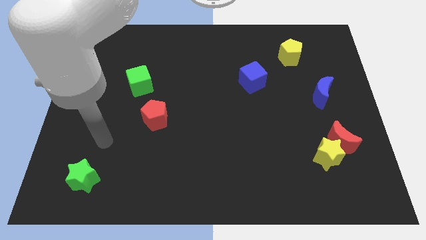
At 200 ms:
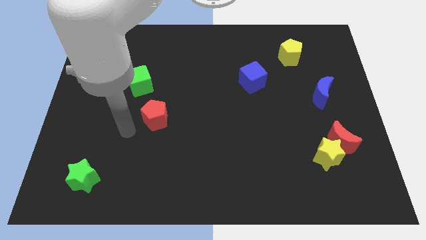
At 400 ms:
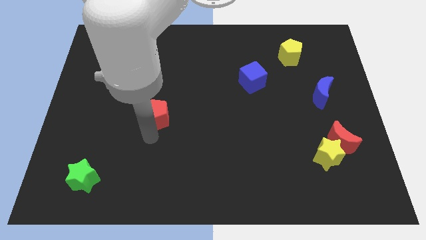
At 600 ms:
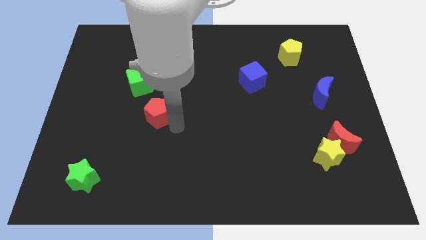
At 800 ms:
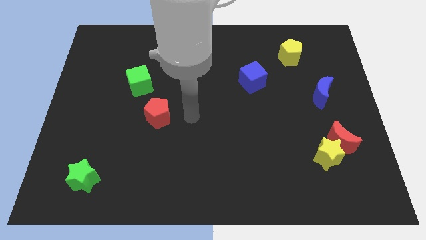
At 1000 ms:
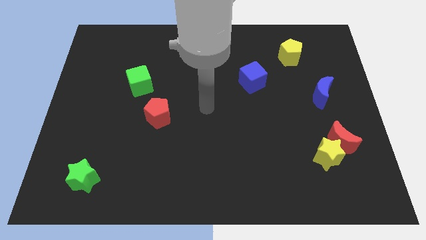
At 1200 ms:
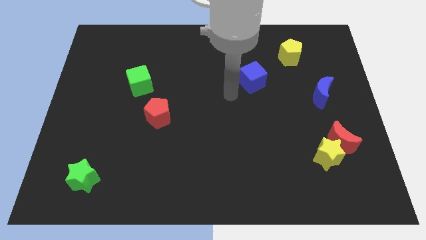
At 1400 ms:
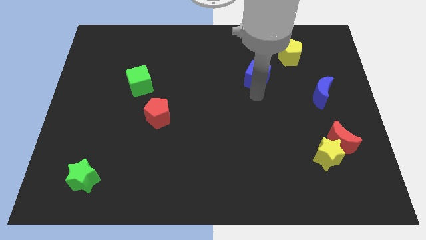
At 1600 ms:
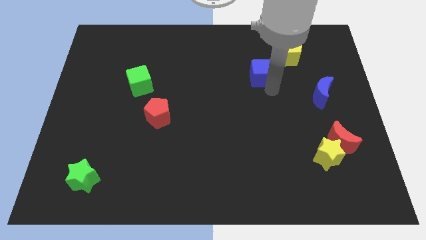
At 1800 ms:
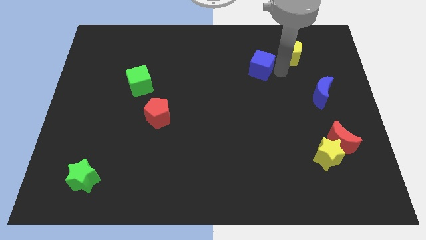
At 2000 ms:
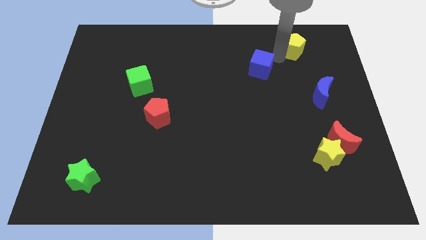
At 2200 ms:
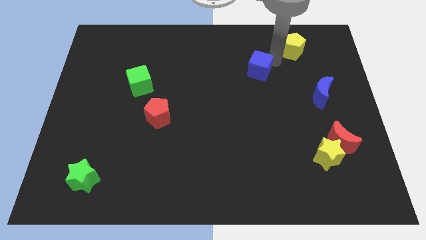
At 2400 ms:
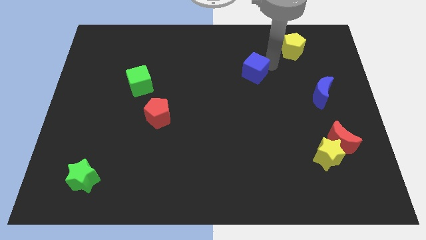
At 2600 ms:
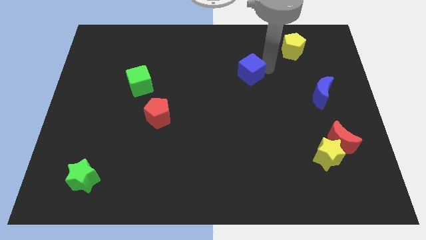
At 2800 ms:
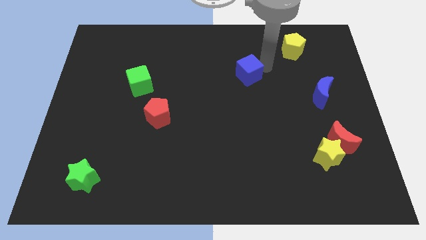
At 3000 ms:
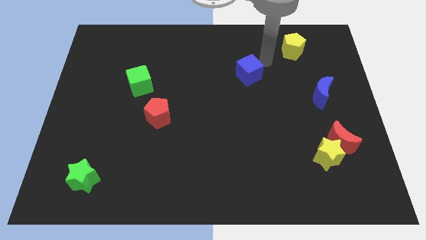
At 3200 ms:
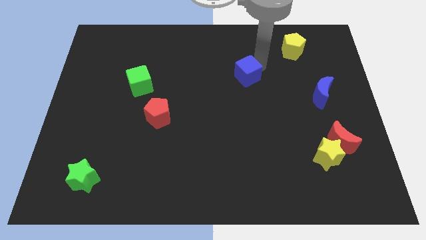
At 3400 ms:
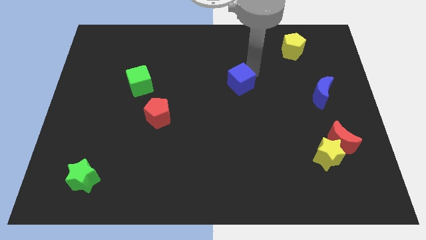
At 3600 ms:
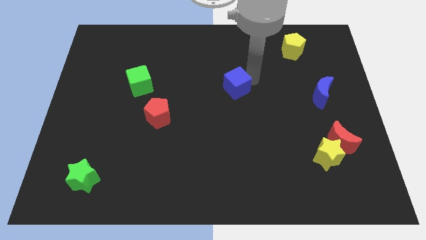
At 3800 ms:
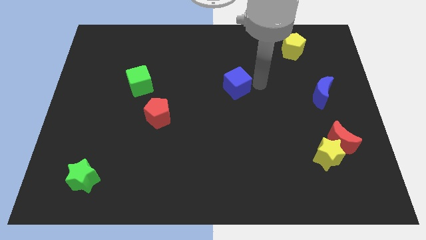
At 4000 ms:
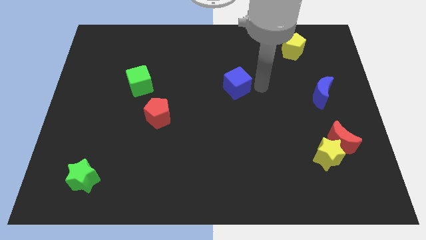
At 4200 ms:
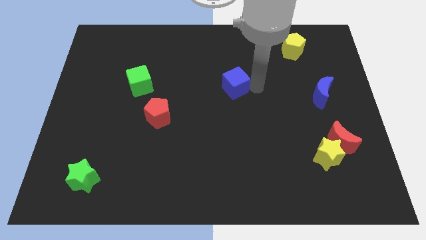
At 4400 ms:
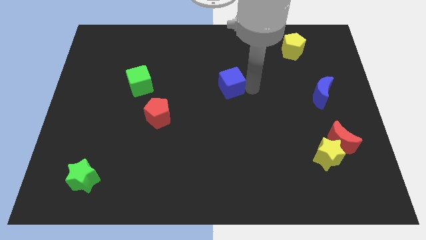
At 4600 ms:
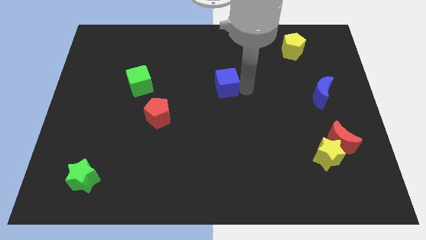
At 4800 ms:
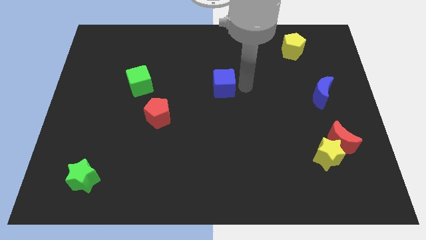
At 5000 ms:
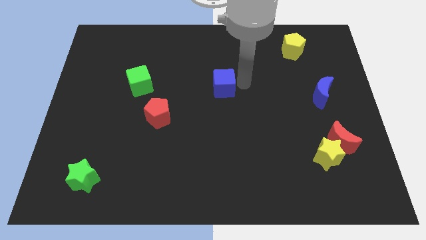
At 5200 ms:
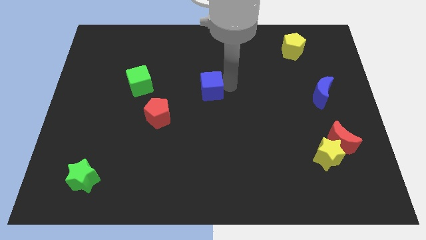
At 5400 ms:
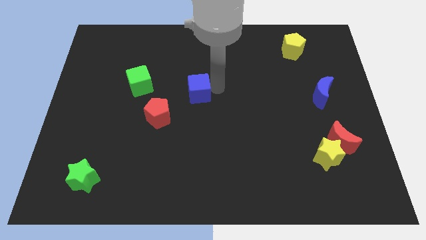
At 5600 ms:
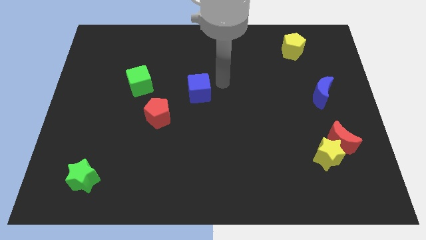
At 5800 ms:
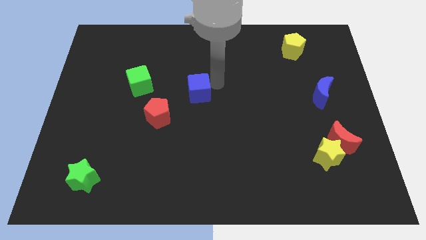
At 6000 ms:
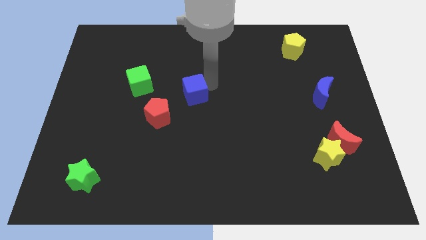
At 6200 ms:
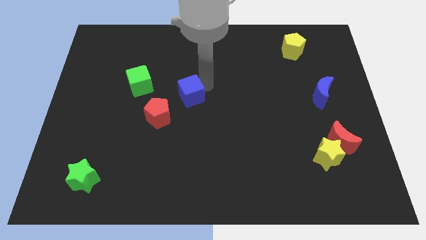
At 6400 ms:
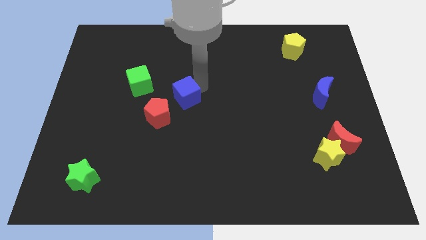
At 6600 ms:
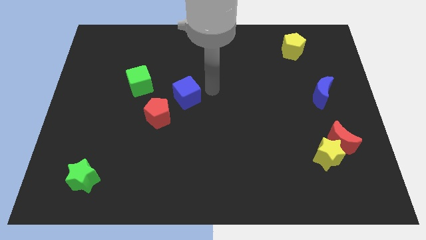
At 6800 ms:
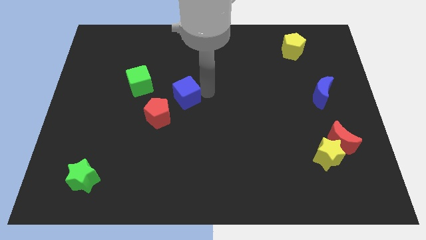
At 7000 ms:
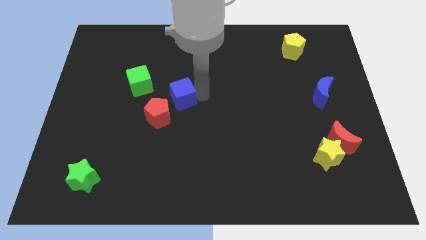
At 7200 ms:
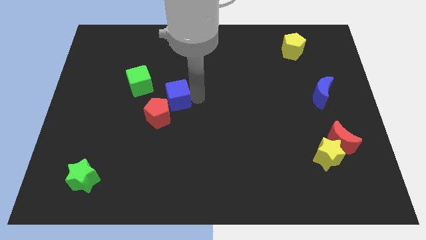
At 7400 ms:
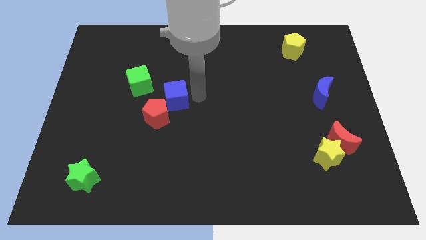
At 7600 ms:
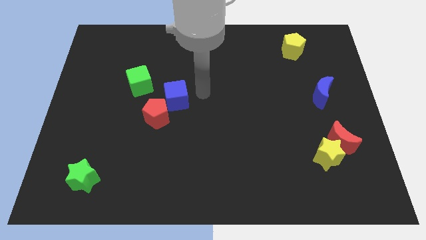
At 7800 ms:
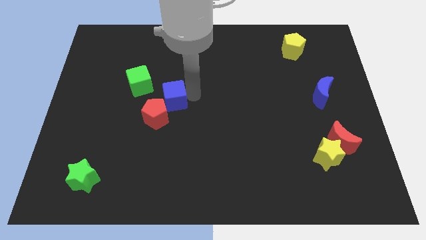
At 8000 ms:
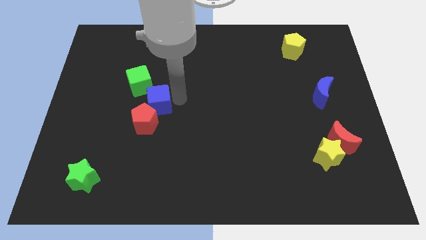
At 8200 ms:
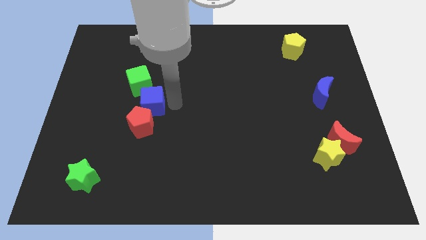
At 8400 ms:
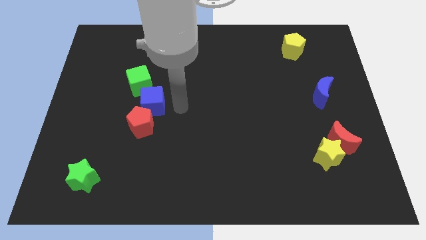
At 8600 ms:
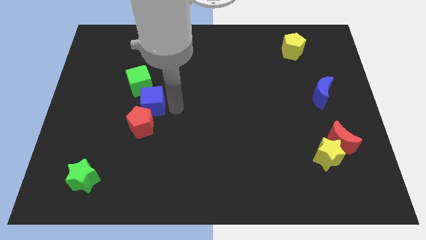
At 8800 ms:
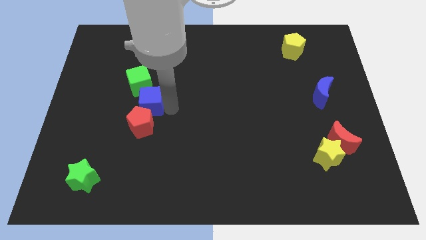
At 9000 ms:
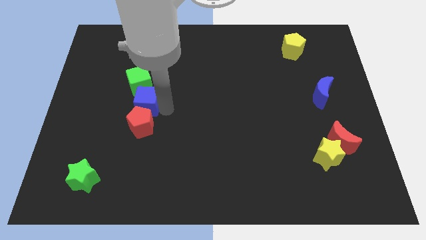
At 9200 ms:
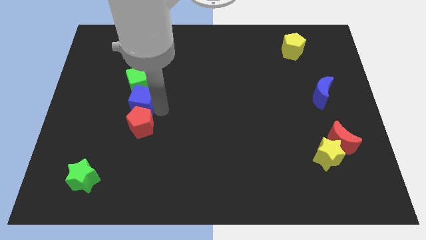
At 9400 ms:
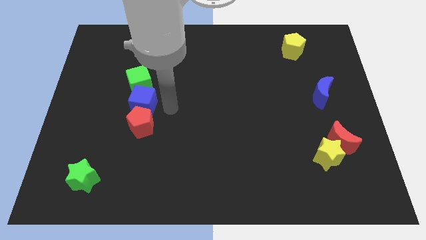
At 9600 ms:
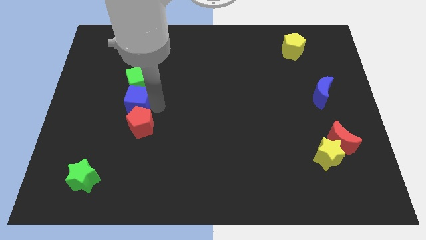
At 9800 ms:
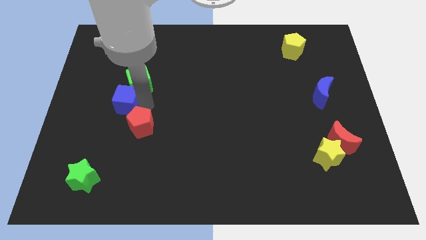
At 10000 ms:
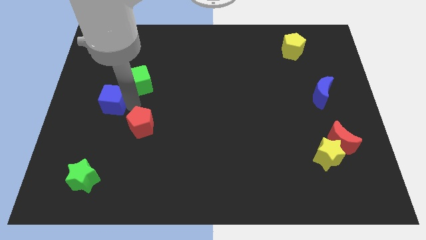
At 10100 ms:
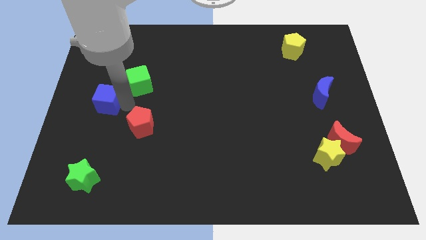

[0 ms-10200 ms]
put the blue cube to the center left

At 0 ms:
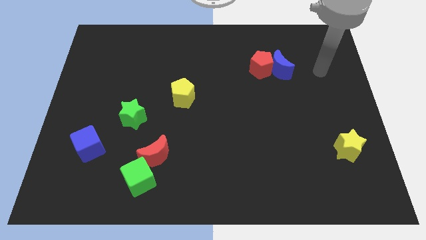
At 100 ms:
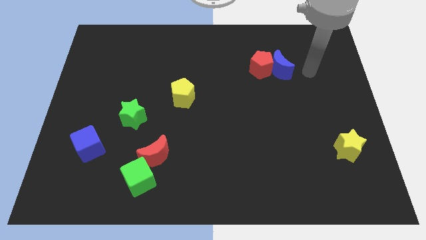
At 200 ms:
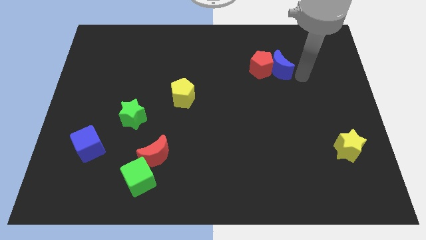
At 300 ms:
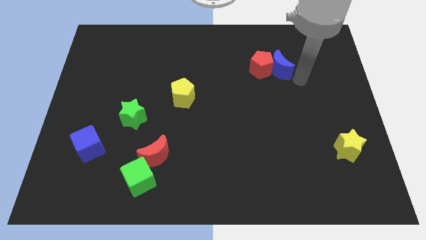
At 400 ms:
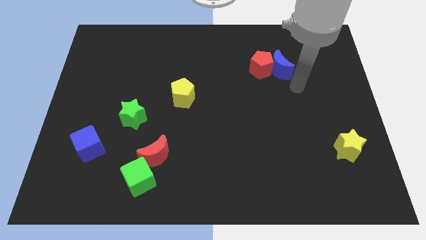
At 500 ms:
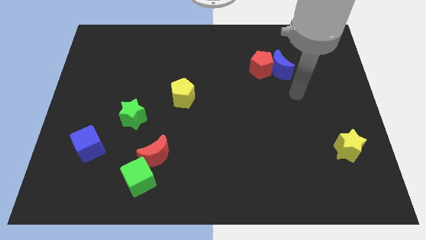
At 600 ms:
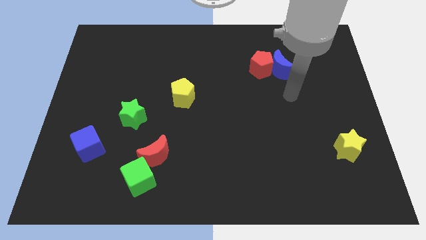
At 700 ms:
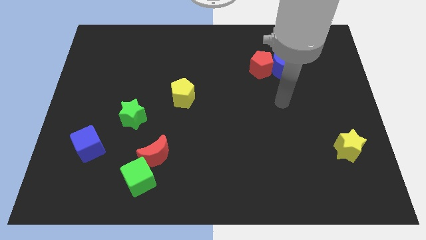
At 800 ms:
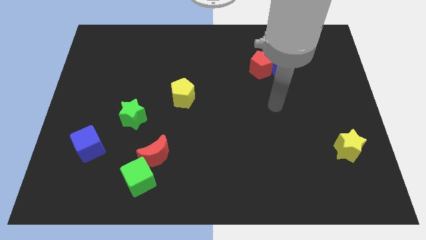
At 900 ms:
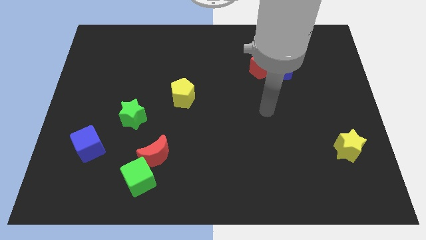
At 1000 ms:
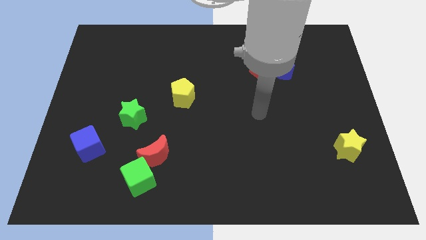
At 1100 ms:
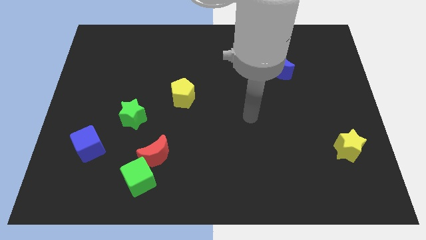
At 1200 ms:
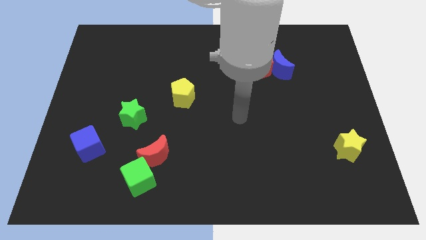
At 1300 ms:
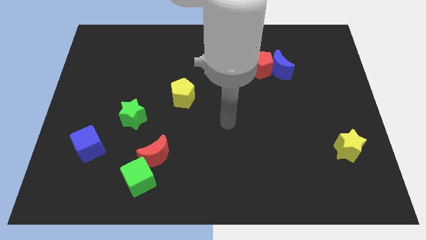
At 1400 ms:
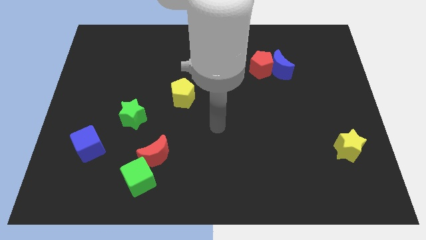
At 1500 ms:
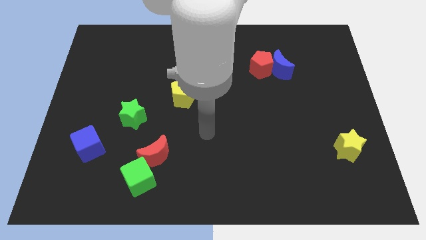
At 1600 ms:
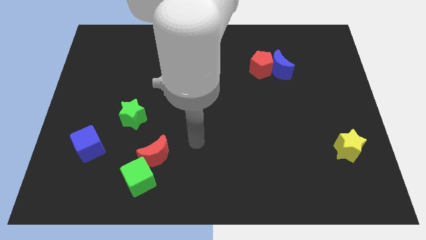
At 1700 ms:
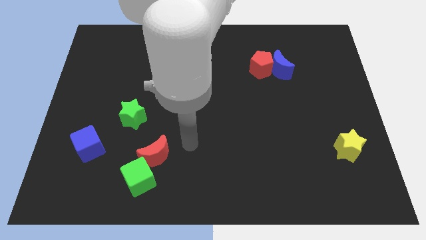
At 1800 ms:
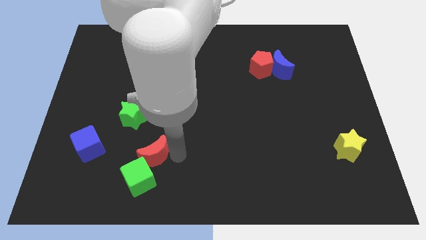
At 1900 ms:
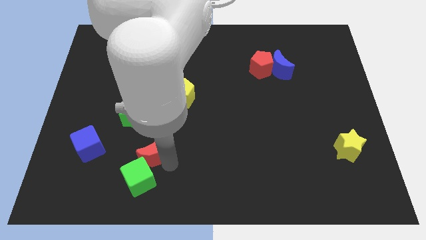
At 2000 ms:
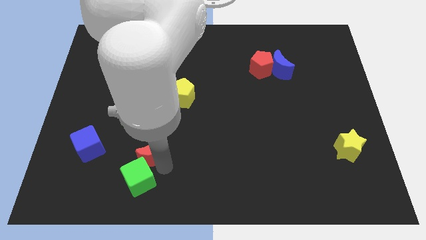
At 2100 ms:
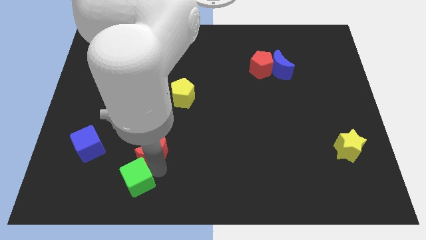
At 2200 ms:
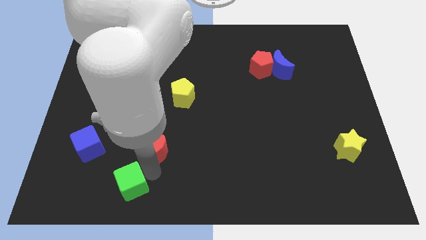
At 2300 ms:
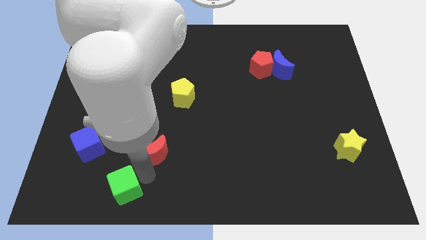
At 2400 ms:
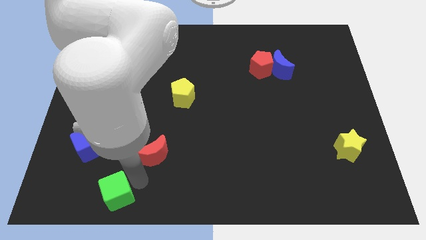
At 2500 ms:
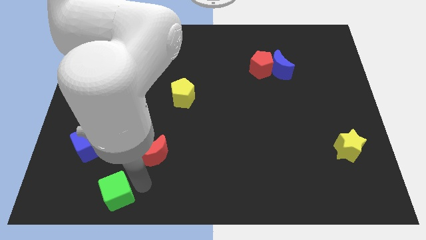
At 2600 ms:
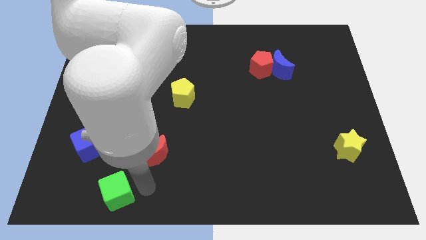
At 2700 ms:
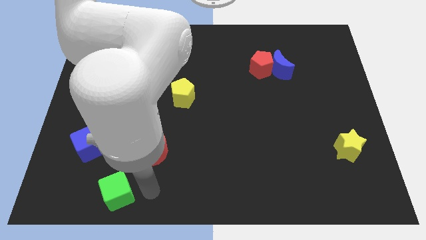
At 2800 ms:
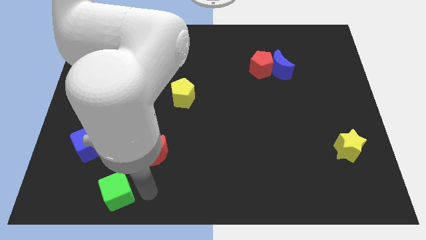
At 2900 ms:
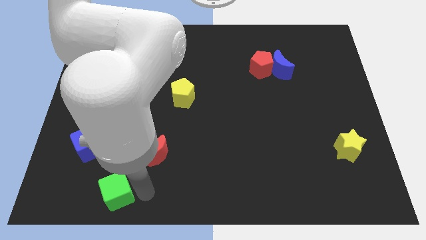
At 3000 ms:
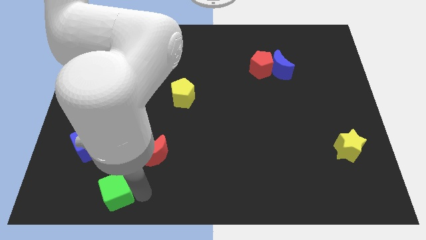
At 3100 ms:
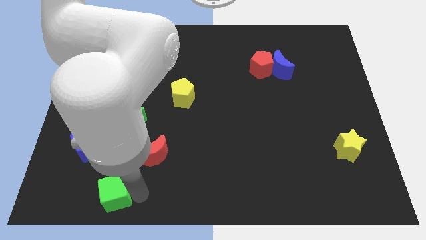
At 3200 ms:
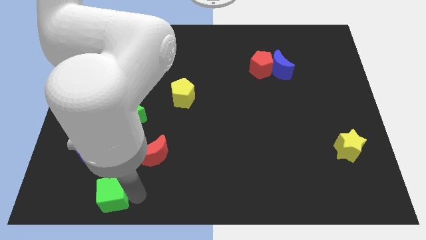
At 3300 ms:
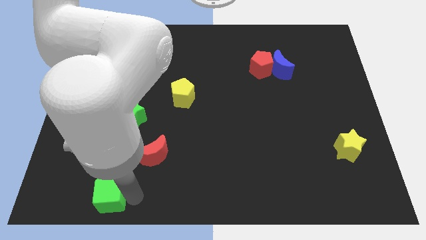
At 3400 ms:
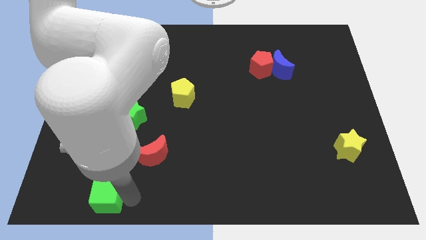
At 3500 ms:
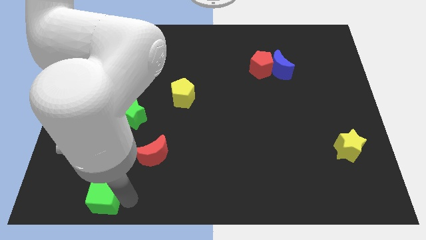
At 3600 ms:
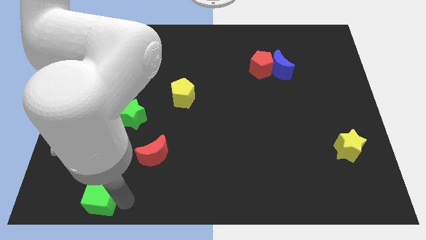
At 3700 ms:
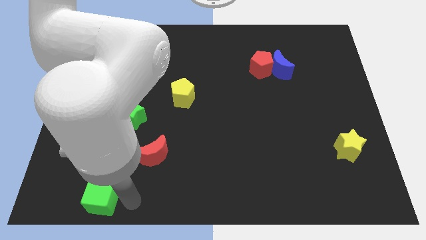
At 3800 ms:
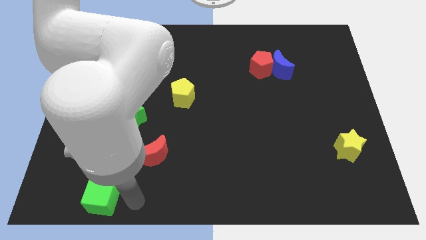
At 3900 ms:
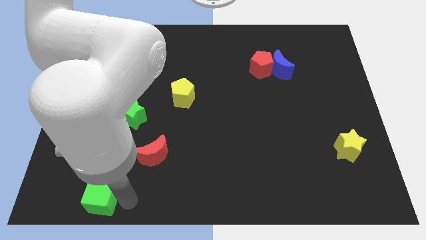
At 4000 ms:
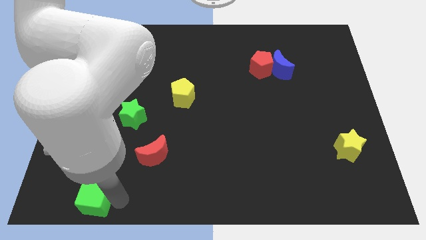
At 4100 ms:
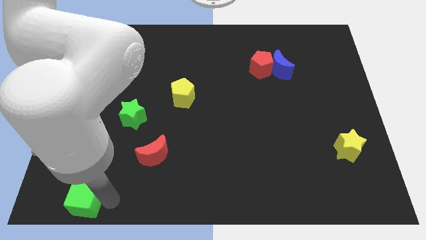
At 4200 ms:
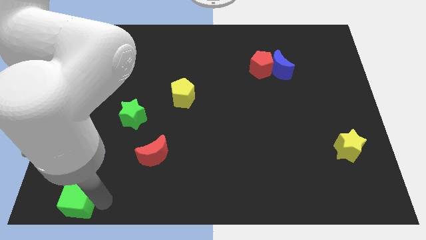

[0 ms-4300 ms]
push the green cube to the bottom left
